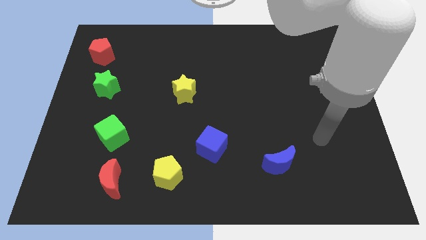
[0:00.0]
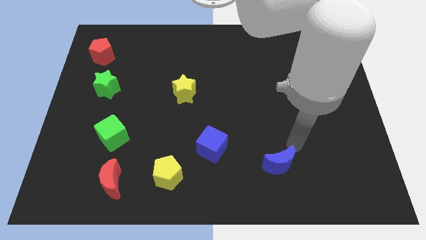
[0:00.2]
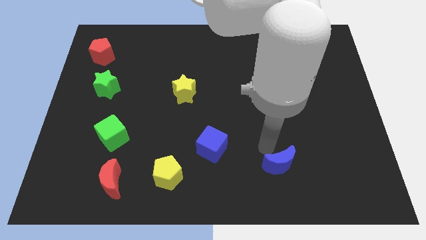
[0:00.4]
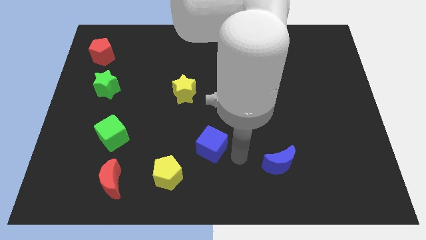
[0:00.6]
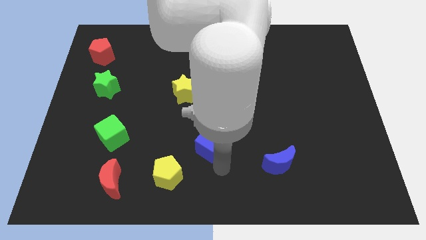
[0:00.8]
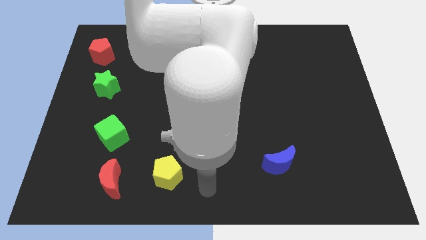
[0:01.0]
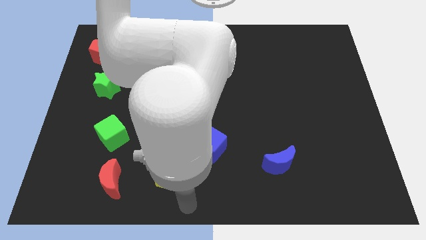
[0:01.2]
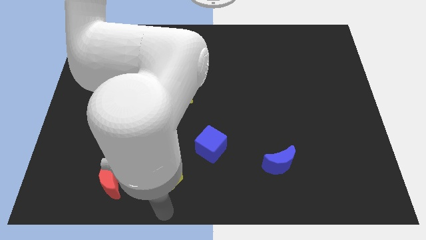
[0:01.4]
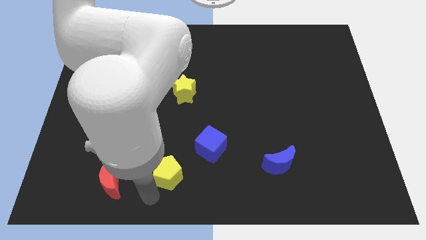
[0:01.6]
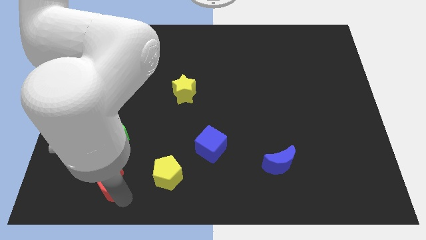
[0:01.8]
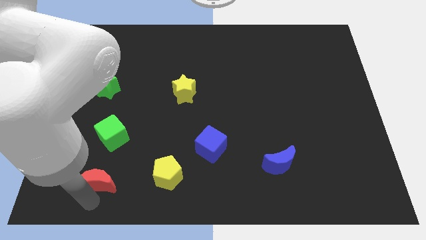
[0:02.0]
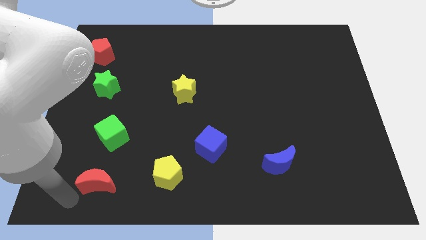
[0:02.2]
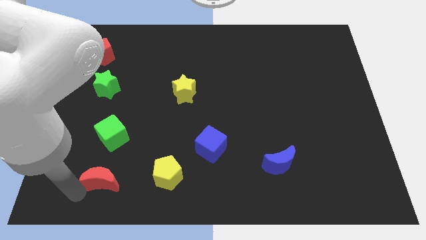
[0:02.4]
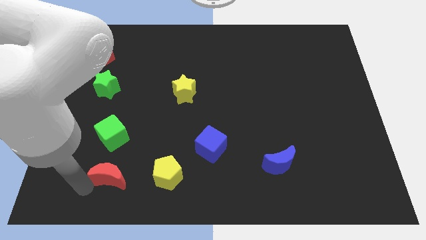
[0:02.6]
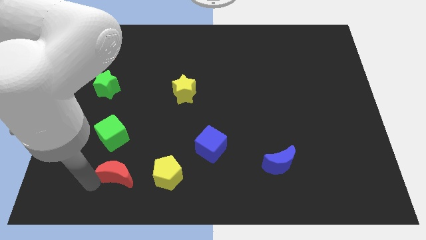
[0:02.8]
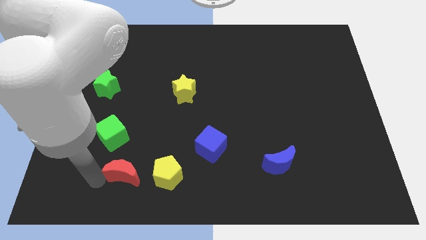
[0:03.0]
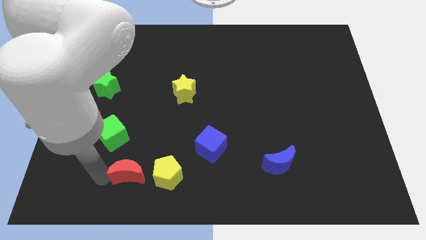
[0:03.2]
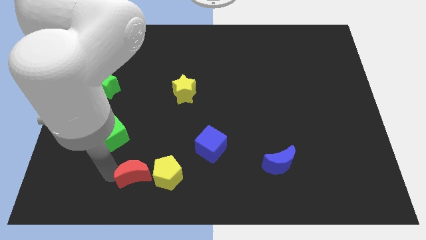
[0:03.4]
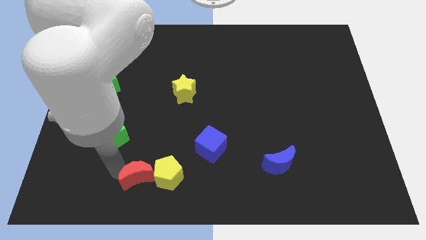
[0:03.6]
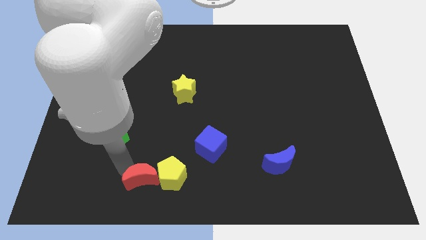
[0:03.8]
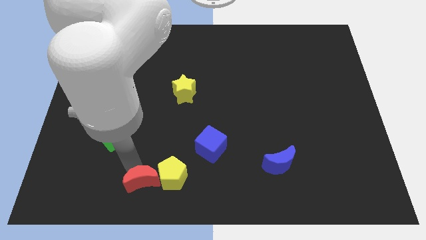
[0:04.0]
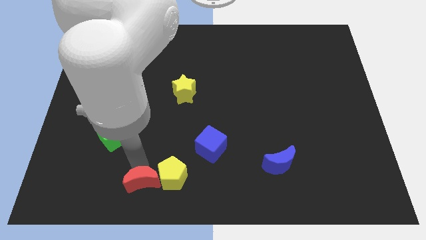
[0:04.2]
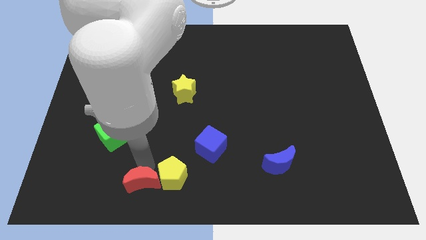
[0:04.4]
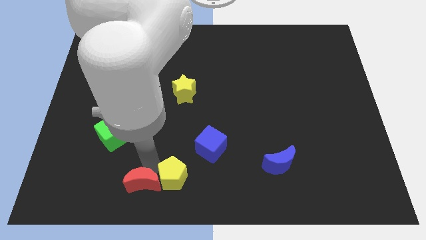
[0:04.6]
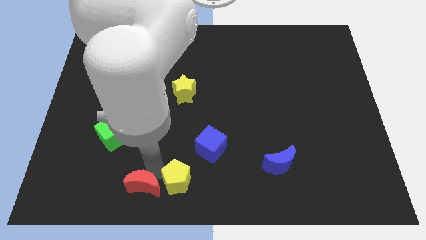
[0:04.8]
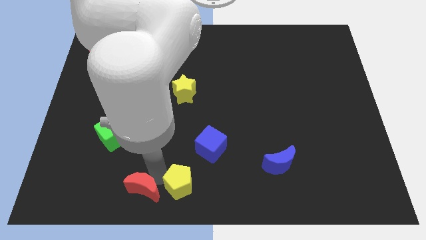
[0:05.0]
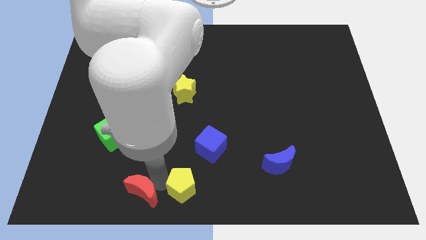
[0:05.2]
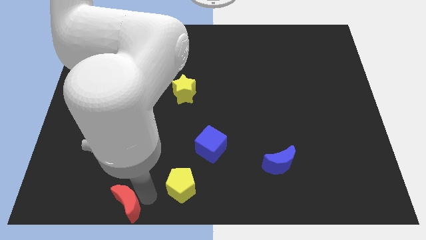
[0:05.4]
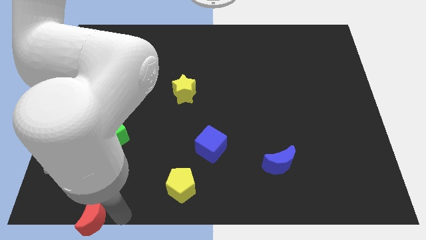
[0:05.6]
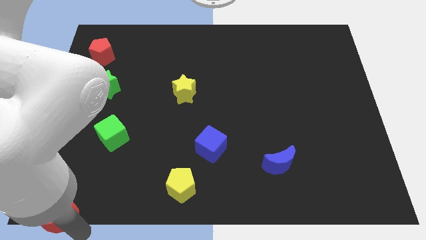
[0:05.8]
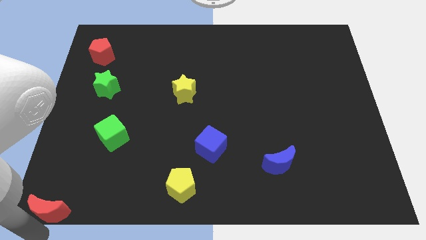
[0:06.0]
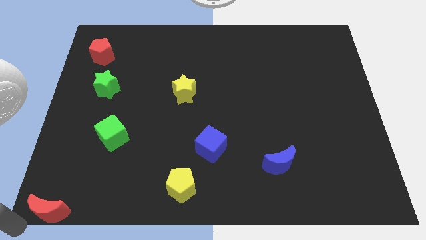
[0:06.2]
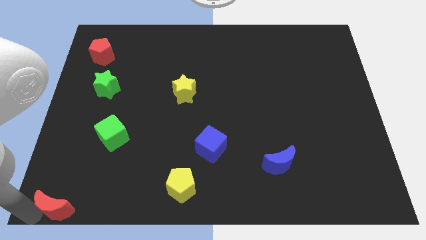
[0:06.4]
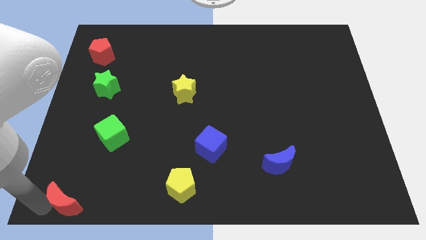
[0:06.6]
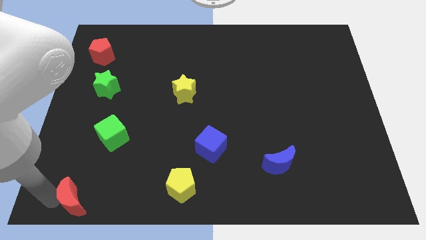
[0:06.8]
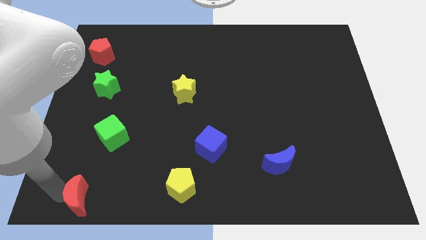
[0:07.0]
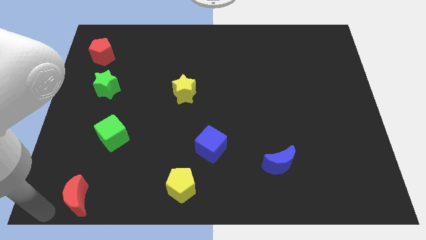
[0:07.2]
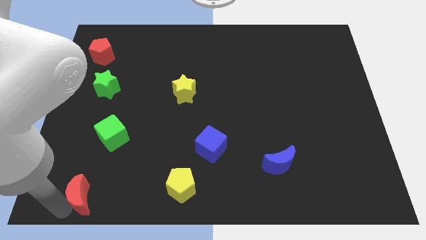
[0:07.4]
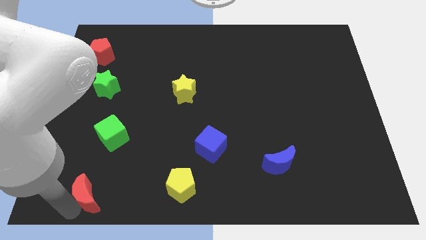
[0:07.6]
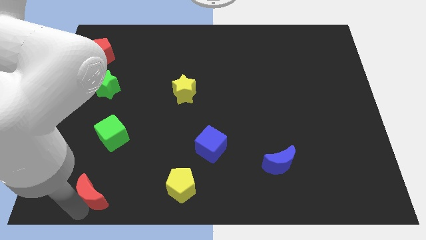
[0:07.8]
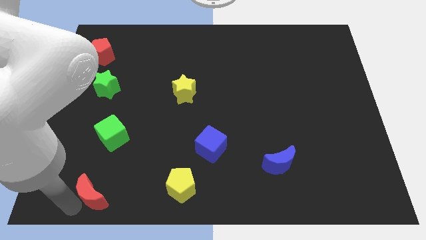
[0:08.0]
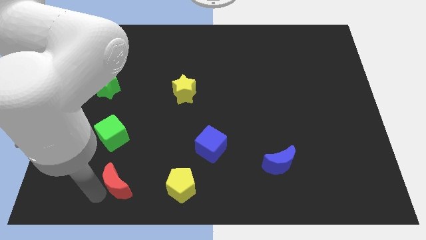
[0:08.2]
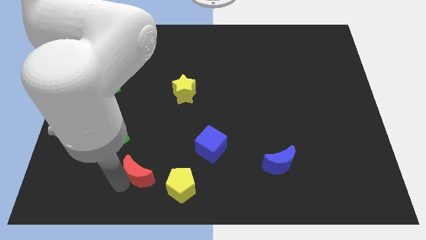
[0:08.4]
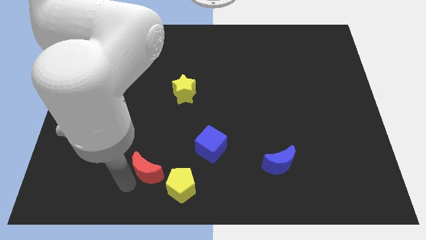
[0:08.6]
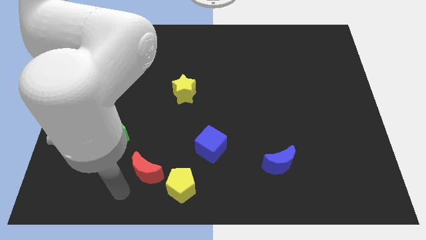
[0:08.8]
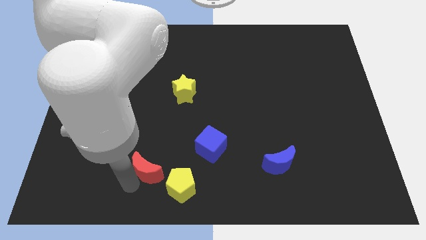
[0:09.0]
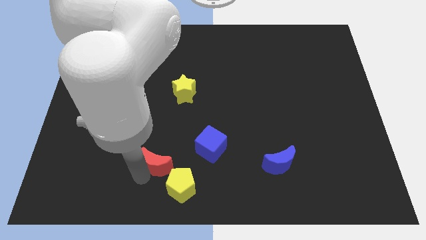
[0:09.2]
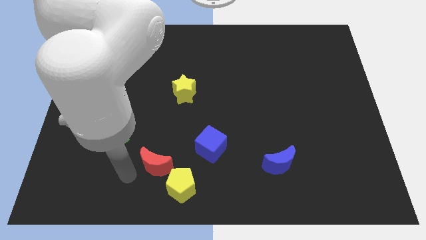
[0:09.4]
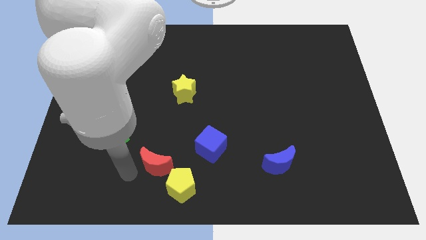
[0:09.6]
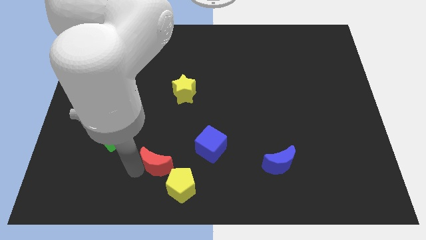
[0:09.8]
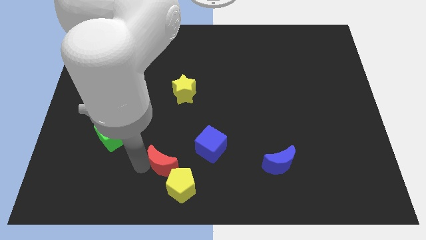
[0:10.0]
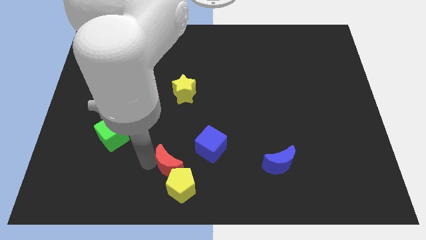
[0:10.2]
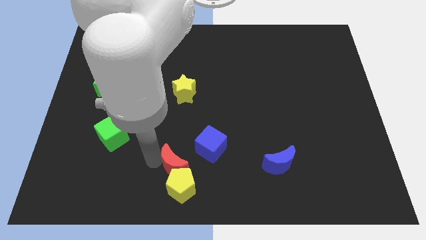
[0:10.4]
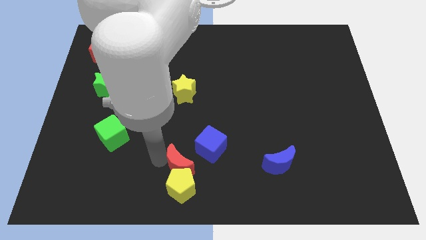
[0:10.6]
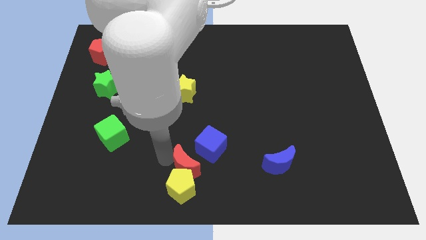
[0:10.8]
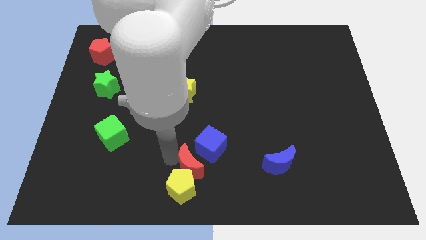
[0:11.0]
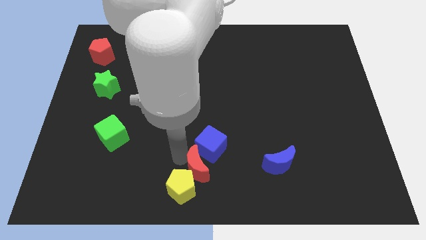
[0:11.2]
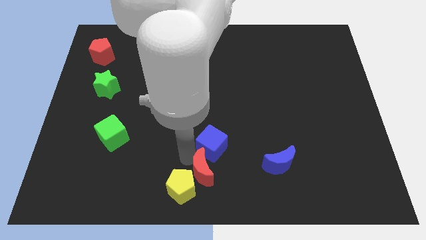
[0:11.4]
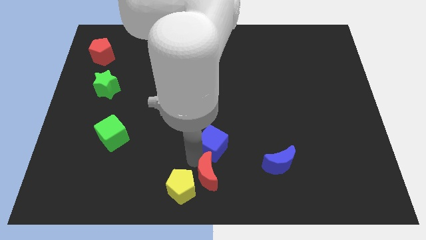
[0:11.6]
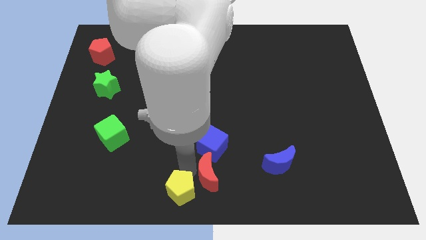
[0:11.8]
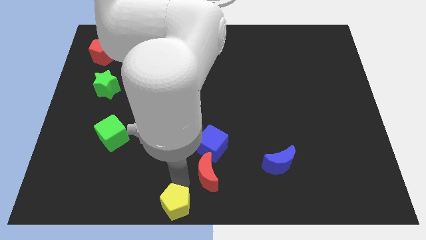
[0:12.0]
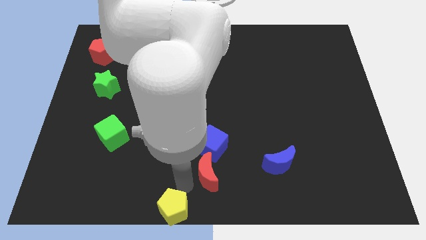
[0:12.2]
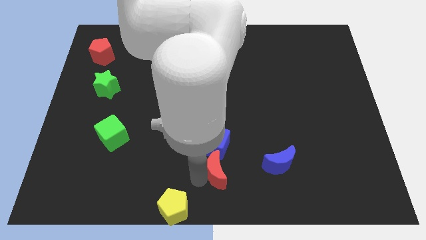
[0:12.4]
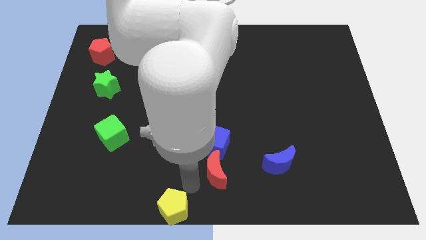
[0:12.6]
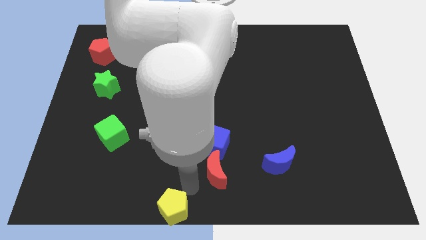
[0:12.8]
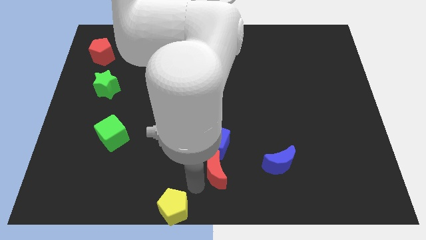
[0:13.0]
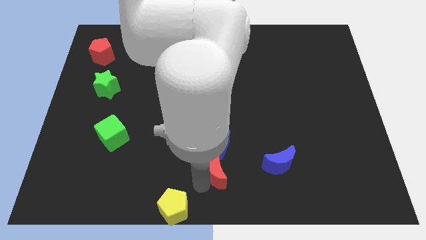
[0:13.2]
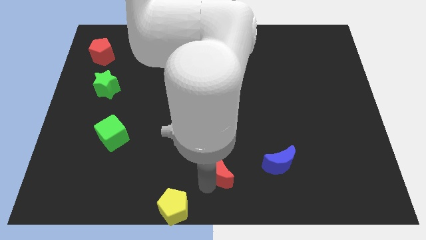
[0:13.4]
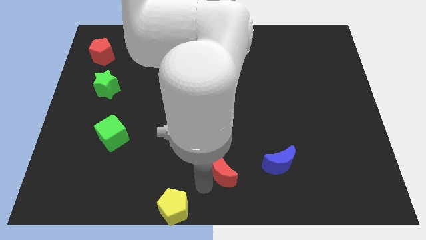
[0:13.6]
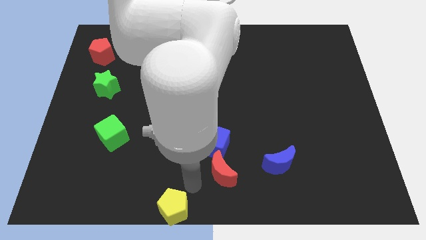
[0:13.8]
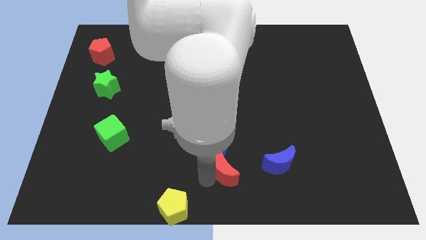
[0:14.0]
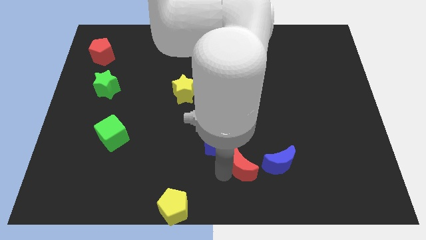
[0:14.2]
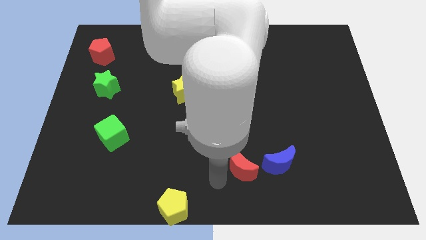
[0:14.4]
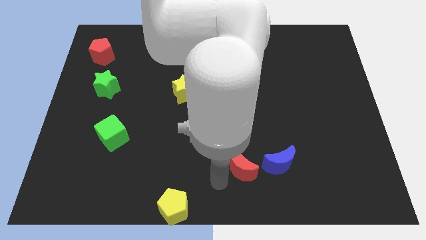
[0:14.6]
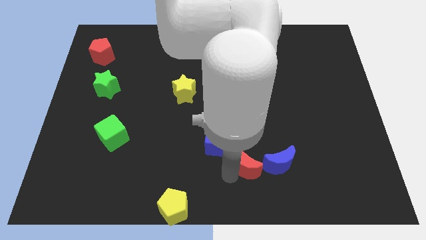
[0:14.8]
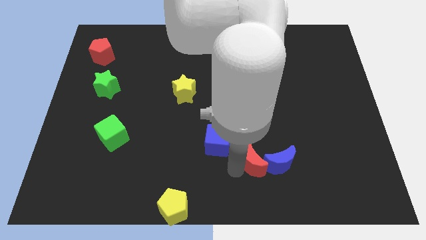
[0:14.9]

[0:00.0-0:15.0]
push the red moon close to the blue moon
